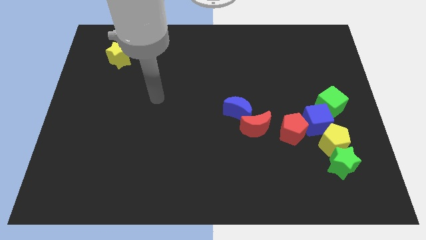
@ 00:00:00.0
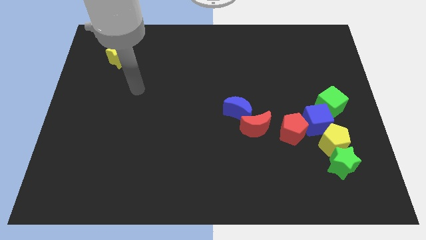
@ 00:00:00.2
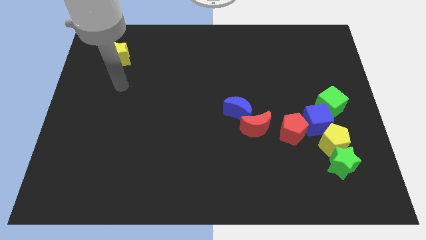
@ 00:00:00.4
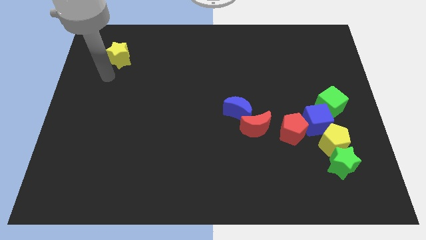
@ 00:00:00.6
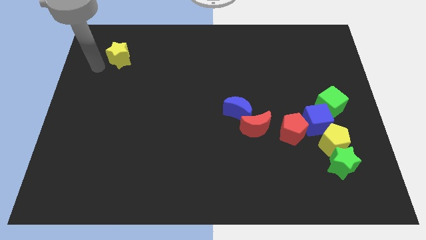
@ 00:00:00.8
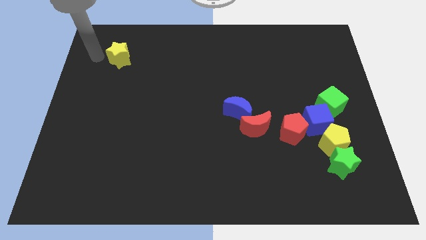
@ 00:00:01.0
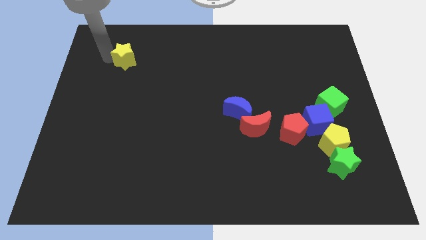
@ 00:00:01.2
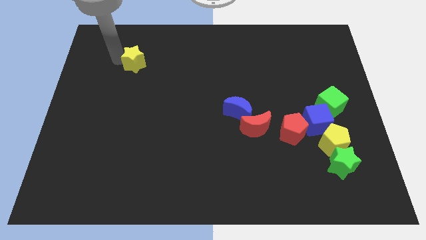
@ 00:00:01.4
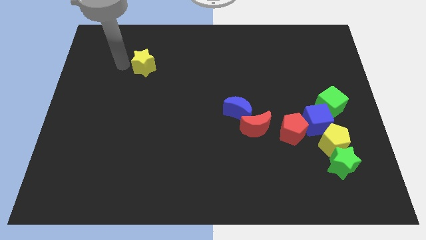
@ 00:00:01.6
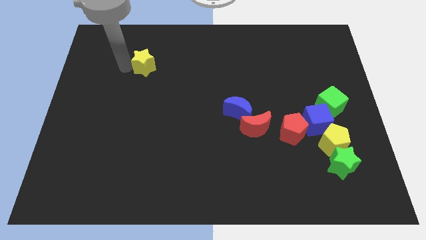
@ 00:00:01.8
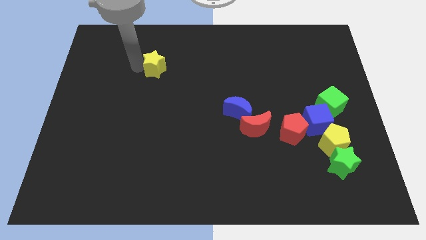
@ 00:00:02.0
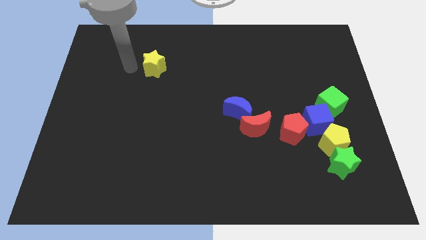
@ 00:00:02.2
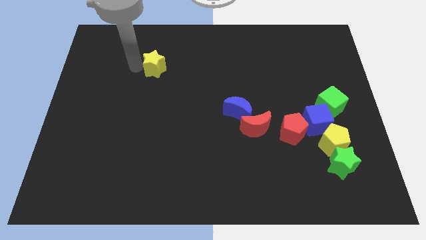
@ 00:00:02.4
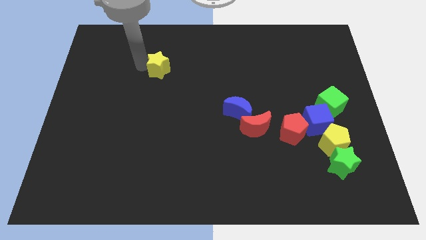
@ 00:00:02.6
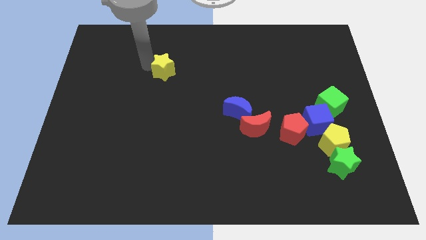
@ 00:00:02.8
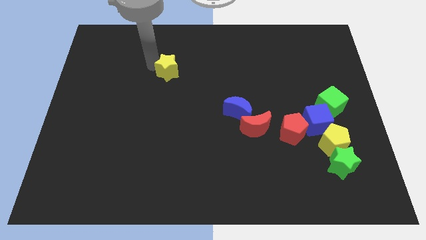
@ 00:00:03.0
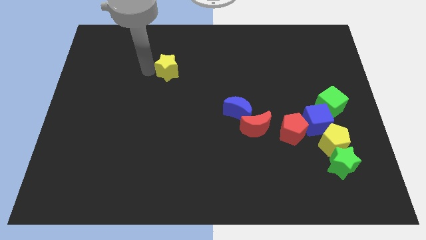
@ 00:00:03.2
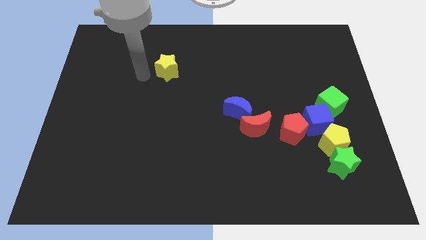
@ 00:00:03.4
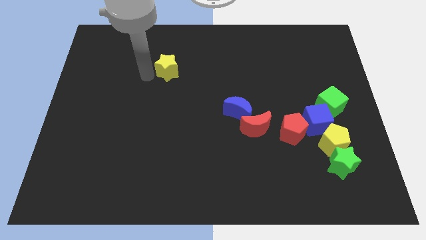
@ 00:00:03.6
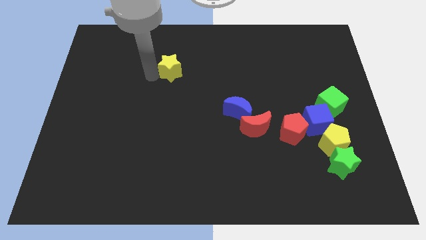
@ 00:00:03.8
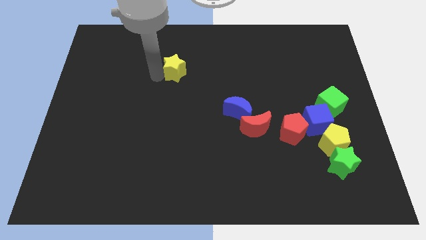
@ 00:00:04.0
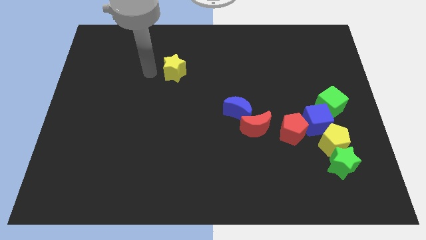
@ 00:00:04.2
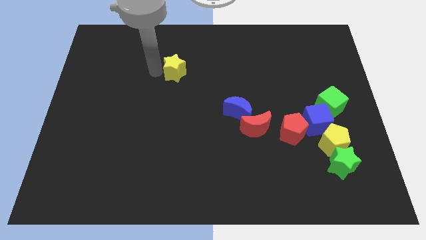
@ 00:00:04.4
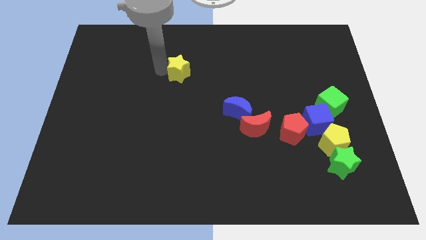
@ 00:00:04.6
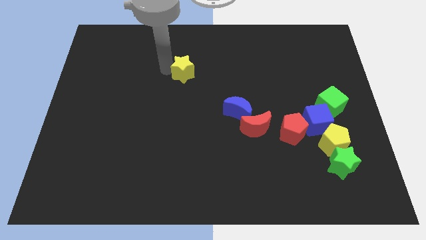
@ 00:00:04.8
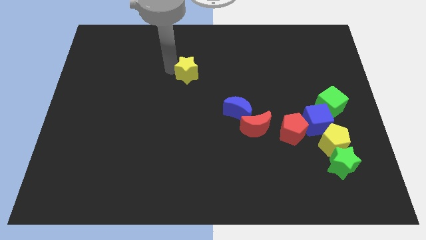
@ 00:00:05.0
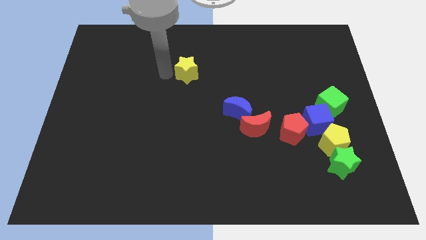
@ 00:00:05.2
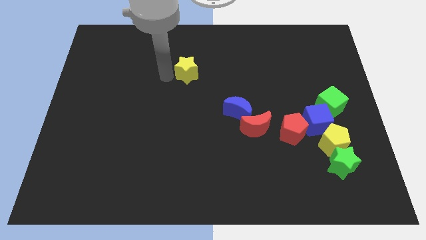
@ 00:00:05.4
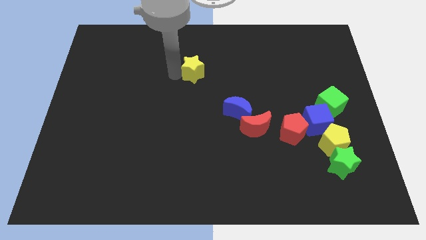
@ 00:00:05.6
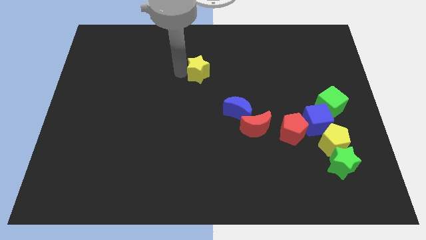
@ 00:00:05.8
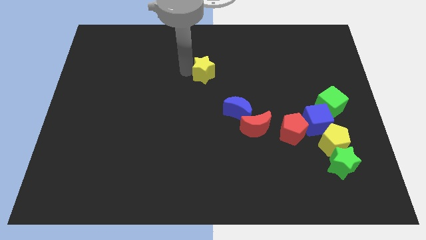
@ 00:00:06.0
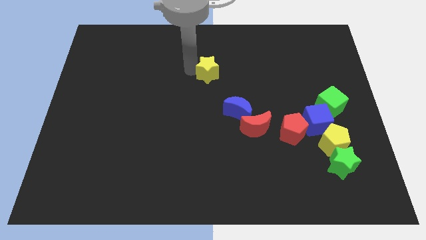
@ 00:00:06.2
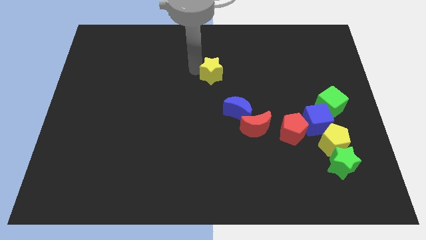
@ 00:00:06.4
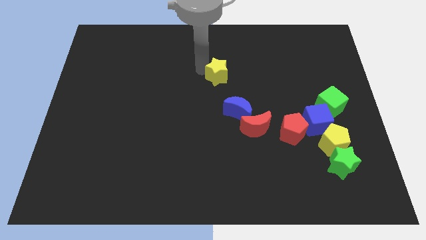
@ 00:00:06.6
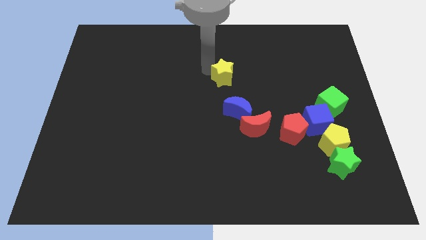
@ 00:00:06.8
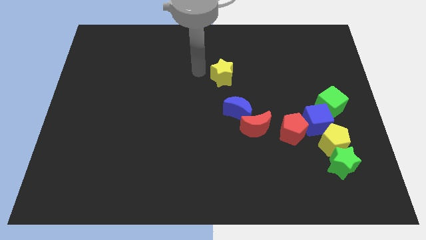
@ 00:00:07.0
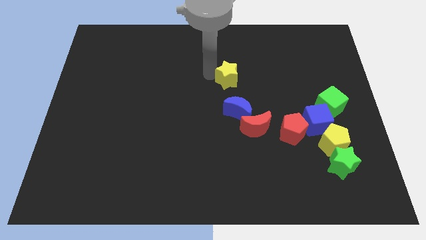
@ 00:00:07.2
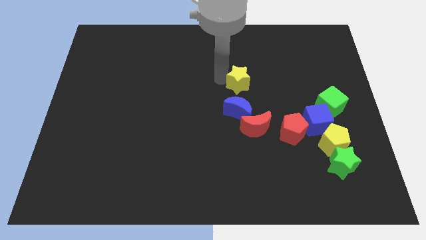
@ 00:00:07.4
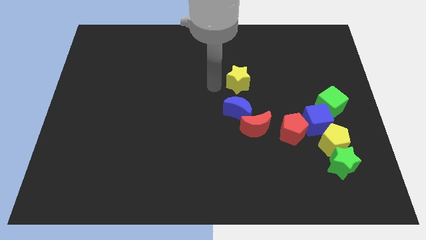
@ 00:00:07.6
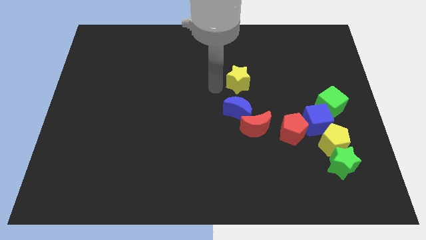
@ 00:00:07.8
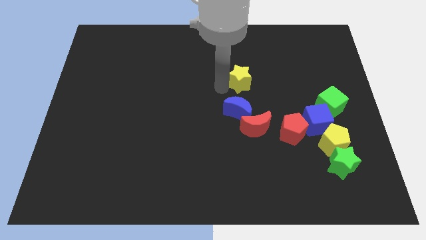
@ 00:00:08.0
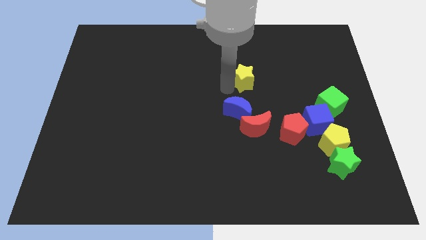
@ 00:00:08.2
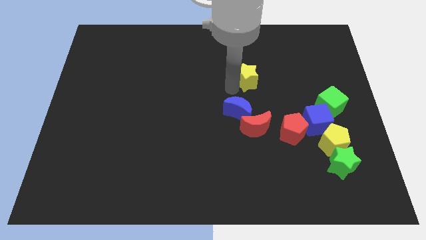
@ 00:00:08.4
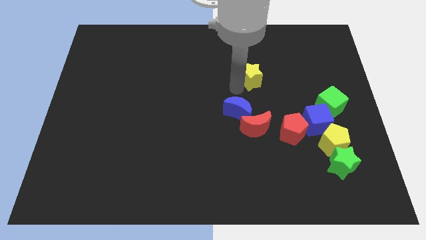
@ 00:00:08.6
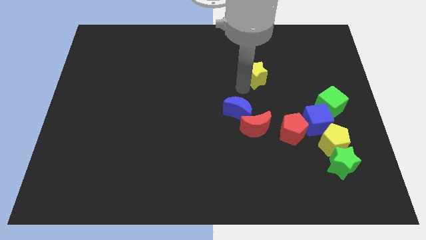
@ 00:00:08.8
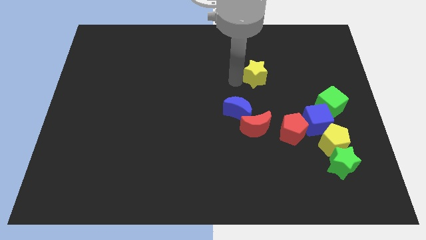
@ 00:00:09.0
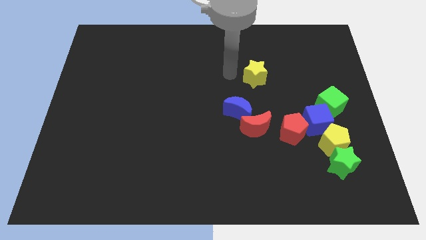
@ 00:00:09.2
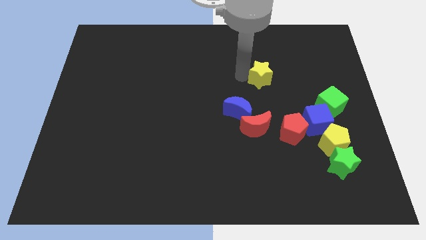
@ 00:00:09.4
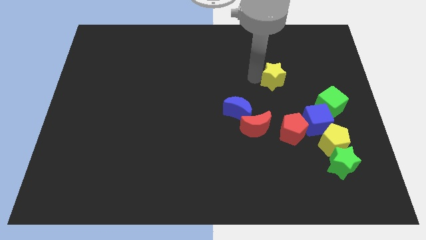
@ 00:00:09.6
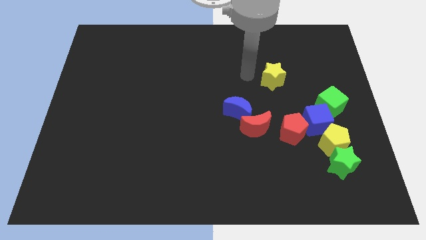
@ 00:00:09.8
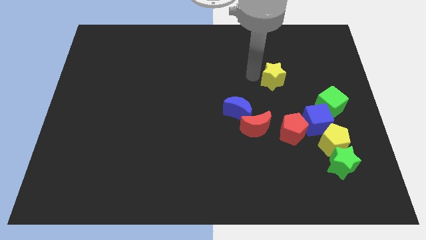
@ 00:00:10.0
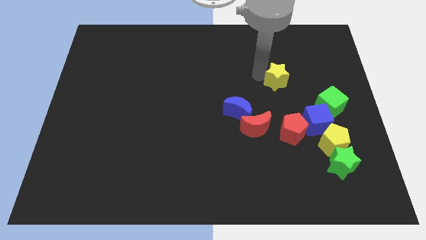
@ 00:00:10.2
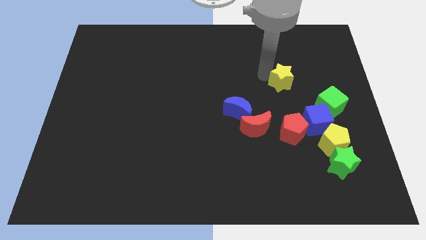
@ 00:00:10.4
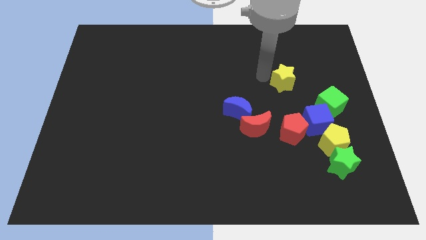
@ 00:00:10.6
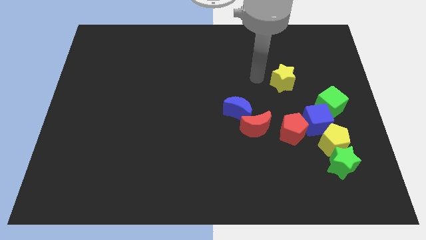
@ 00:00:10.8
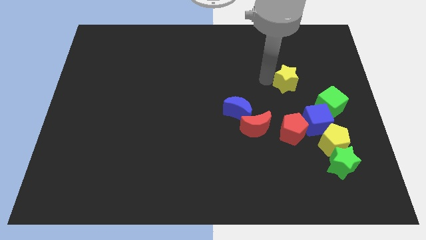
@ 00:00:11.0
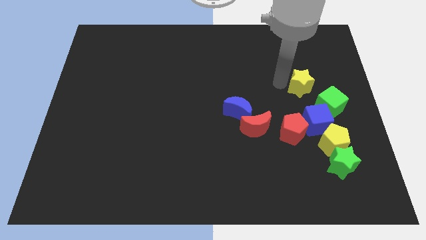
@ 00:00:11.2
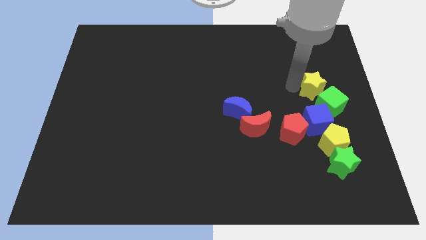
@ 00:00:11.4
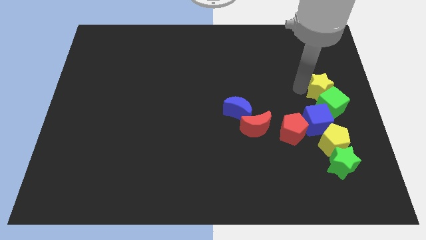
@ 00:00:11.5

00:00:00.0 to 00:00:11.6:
slide the yellow star to the right side

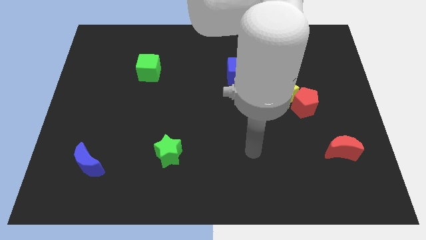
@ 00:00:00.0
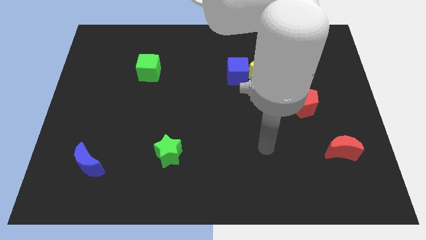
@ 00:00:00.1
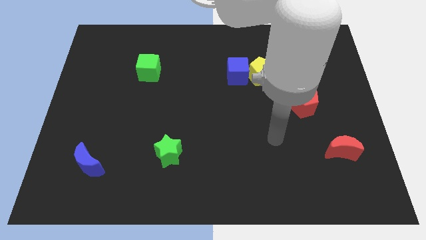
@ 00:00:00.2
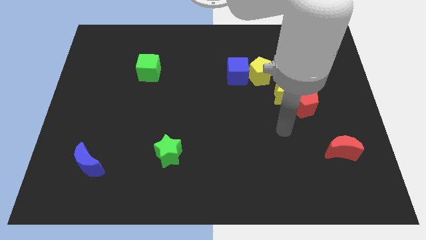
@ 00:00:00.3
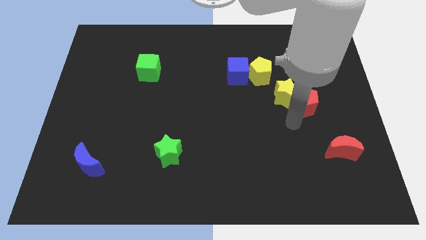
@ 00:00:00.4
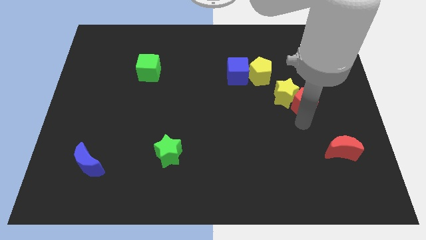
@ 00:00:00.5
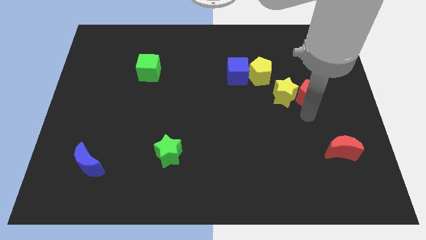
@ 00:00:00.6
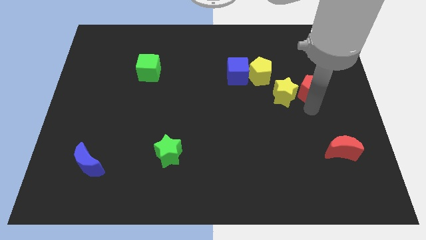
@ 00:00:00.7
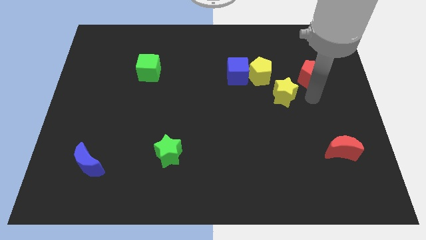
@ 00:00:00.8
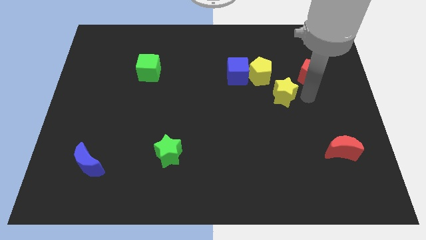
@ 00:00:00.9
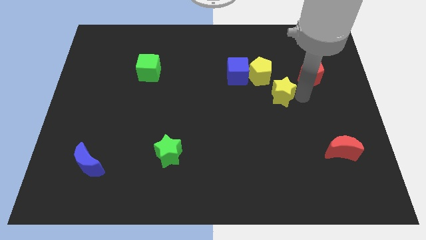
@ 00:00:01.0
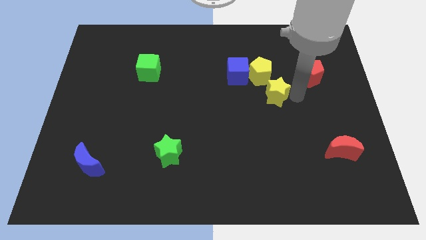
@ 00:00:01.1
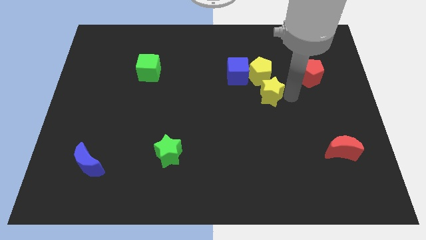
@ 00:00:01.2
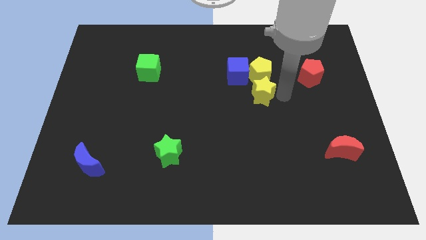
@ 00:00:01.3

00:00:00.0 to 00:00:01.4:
put the yellow star to the middle of the board
